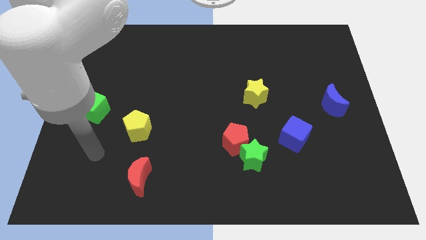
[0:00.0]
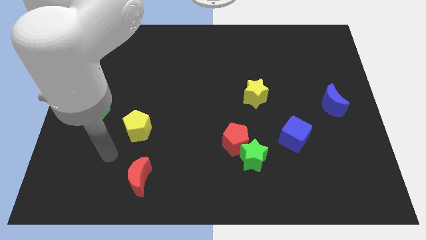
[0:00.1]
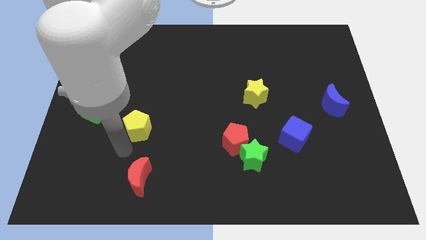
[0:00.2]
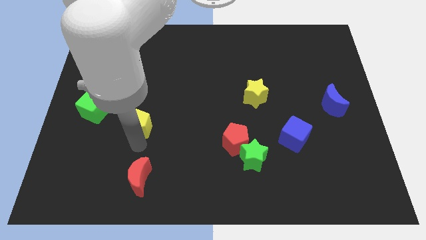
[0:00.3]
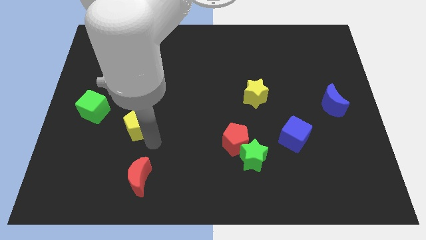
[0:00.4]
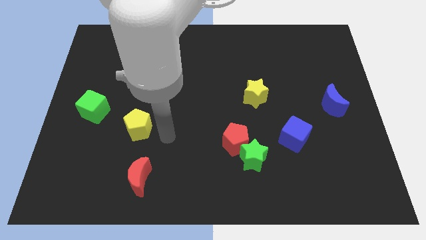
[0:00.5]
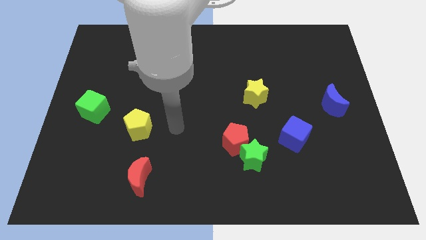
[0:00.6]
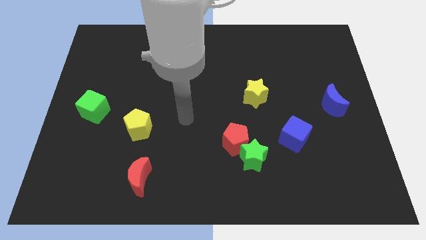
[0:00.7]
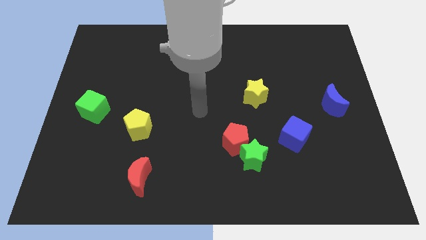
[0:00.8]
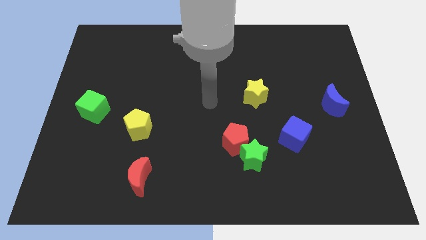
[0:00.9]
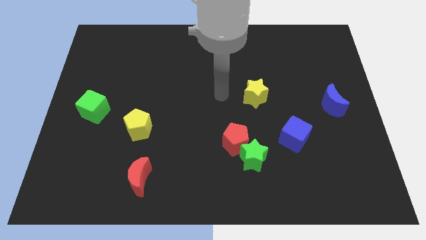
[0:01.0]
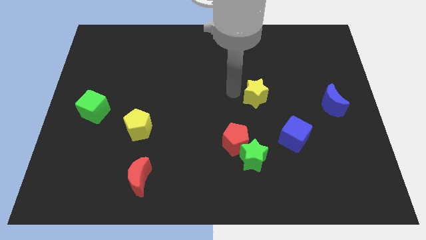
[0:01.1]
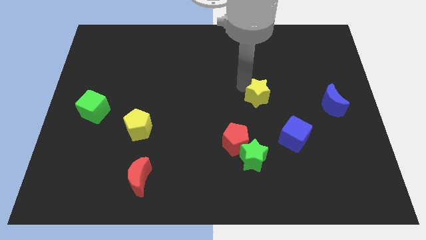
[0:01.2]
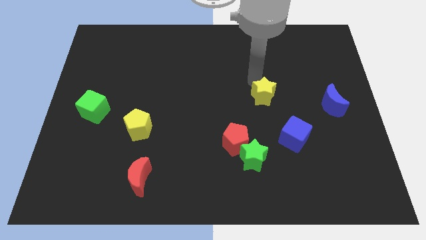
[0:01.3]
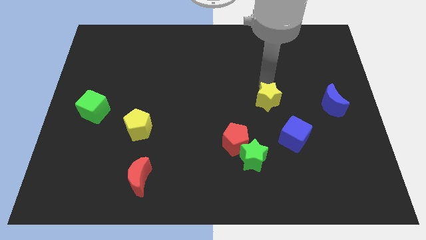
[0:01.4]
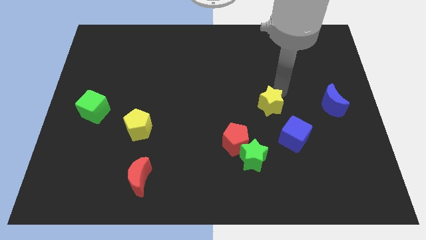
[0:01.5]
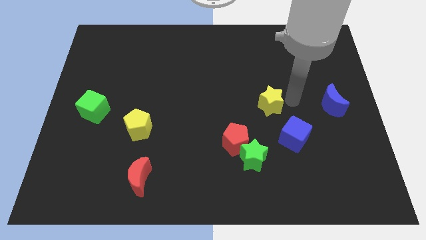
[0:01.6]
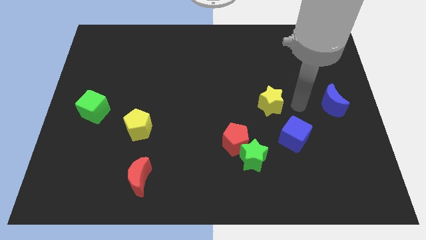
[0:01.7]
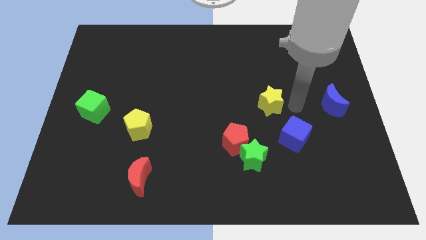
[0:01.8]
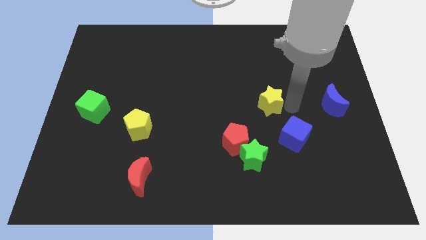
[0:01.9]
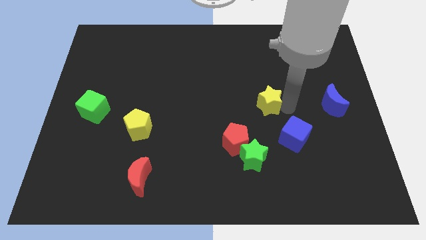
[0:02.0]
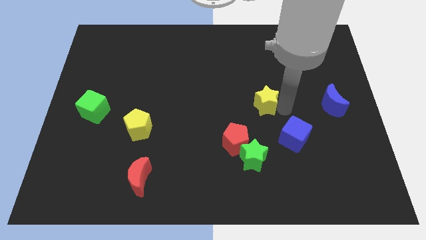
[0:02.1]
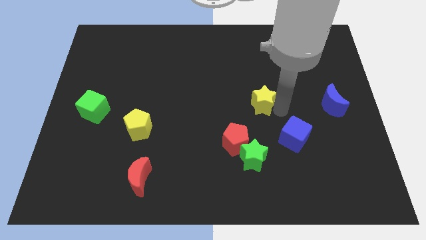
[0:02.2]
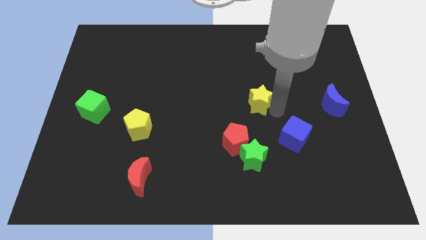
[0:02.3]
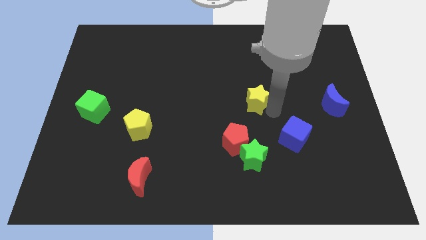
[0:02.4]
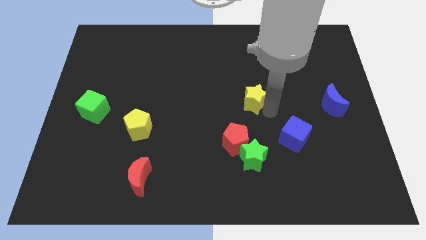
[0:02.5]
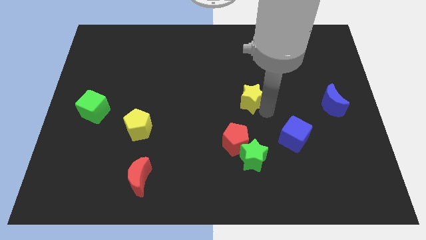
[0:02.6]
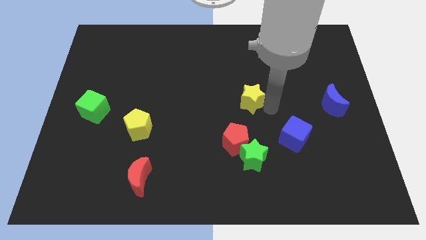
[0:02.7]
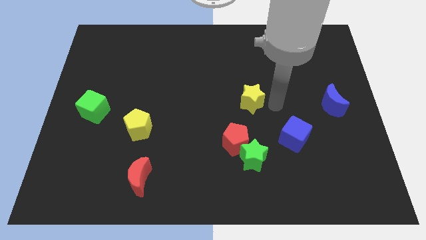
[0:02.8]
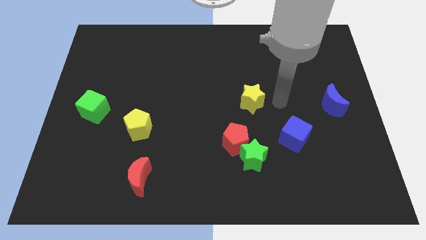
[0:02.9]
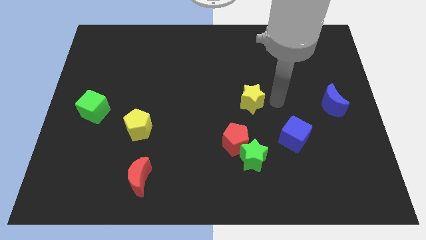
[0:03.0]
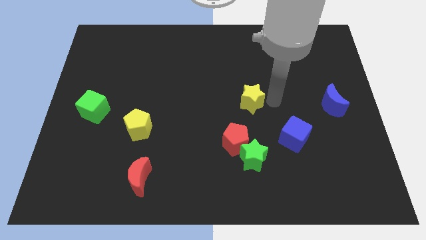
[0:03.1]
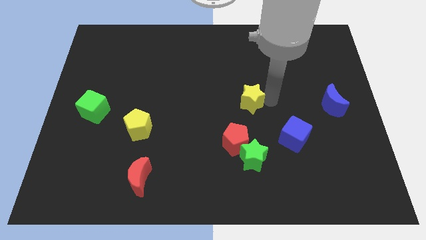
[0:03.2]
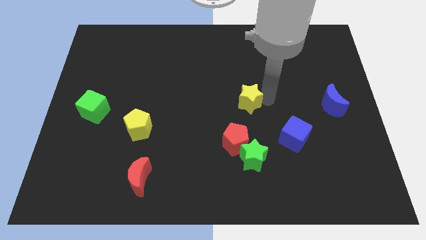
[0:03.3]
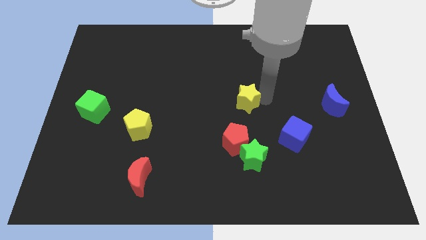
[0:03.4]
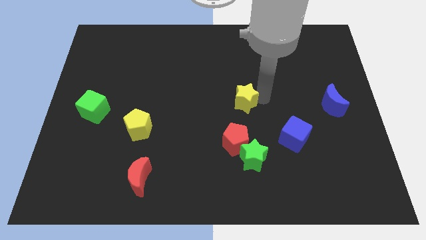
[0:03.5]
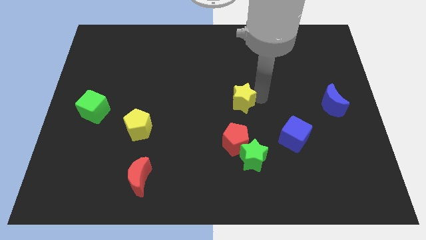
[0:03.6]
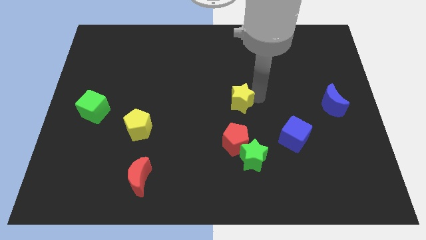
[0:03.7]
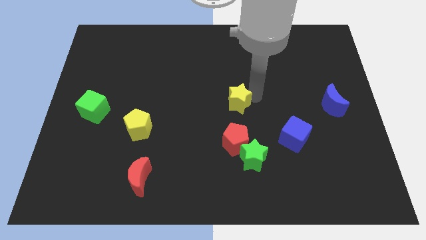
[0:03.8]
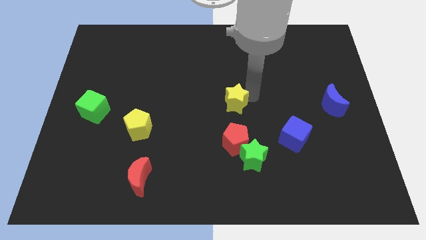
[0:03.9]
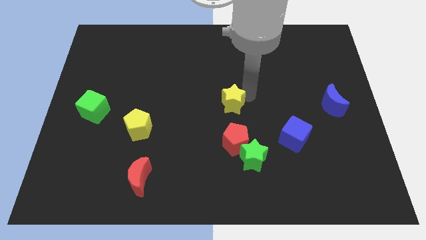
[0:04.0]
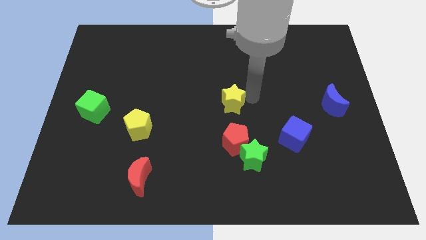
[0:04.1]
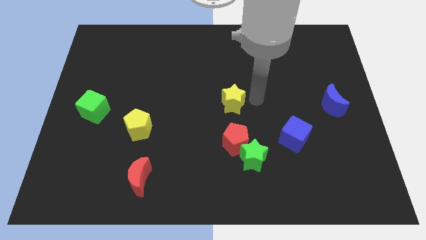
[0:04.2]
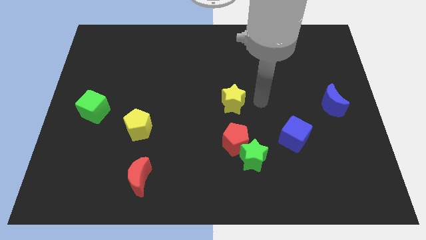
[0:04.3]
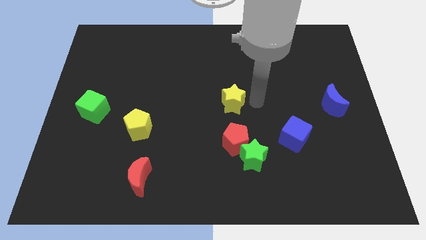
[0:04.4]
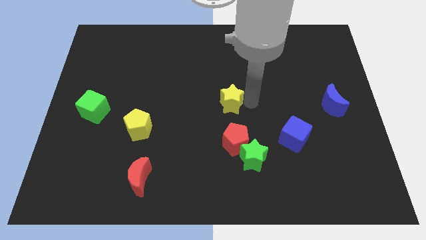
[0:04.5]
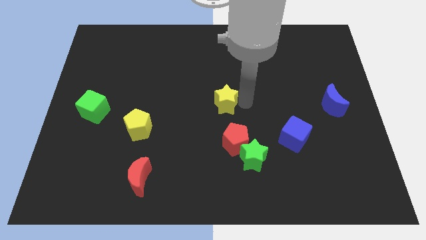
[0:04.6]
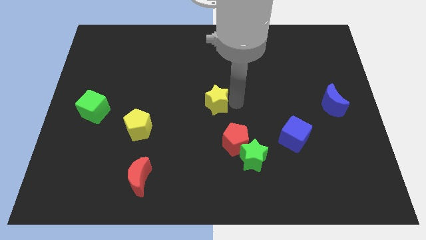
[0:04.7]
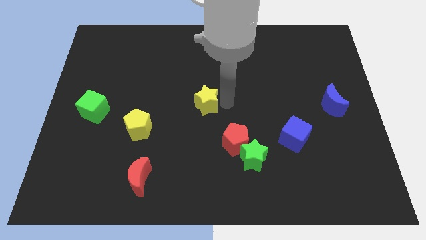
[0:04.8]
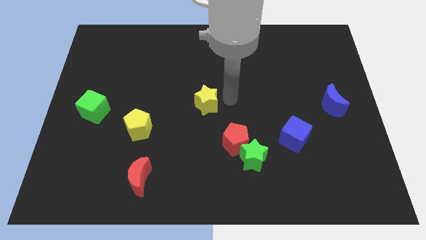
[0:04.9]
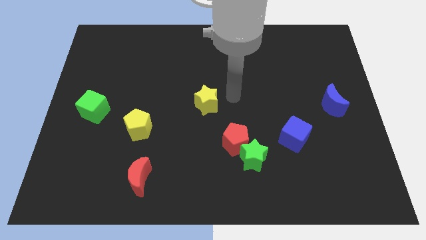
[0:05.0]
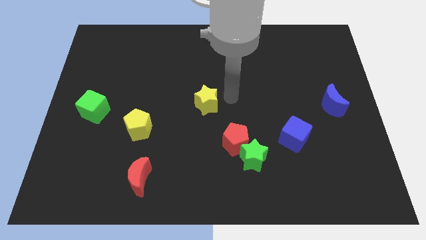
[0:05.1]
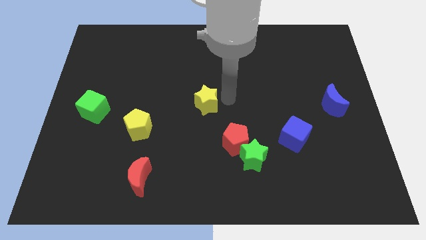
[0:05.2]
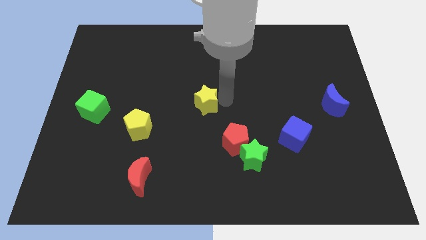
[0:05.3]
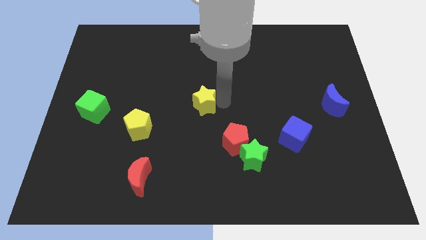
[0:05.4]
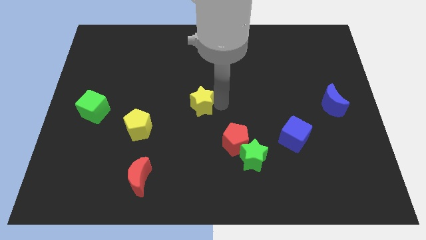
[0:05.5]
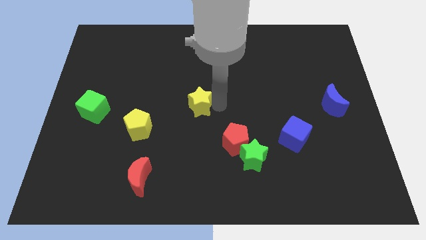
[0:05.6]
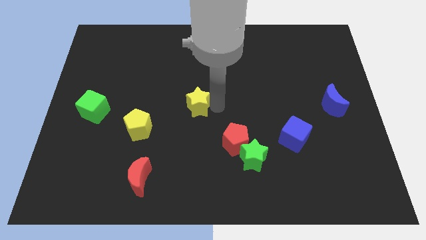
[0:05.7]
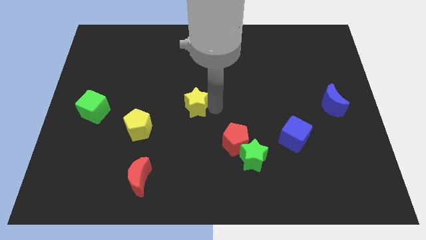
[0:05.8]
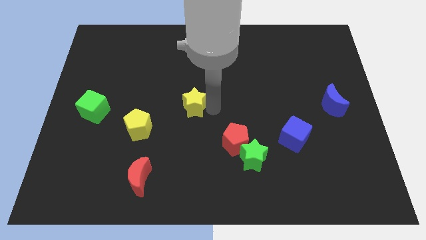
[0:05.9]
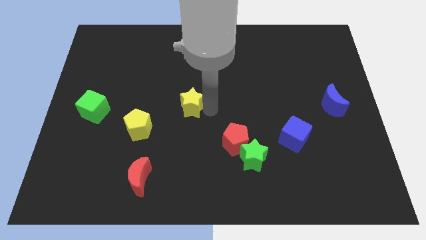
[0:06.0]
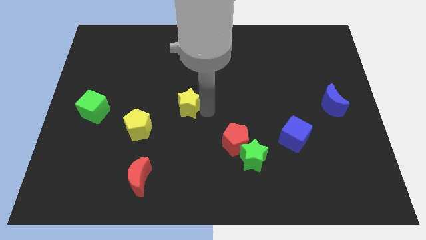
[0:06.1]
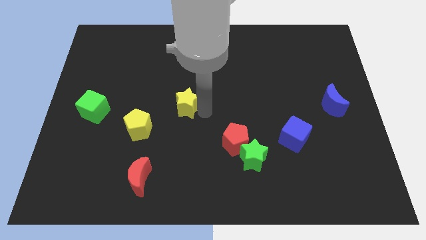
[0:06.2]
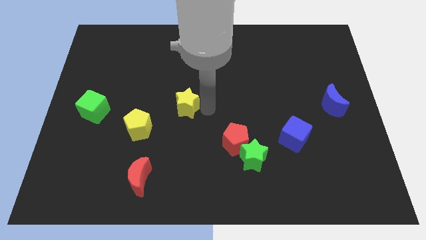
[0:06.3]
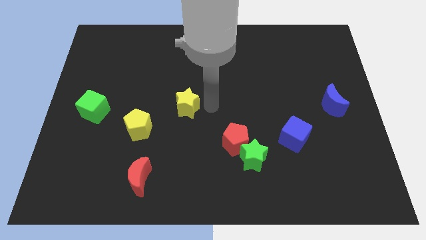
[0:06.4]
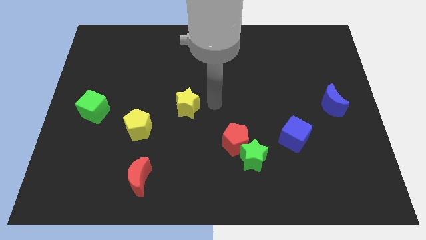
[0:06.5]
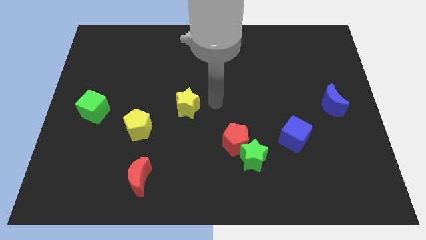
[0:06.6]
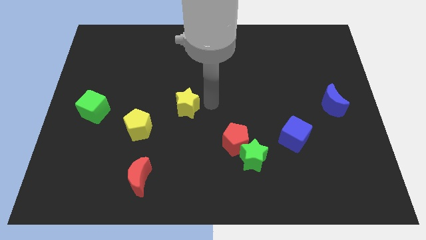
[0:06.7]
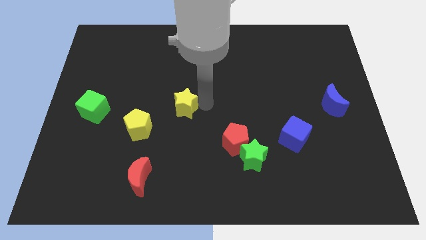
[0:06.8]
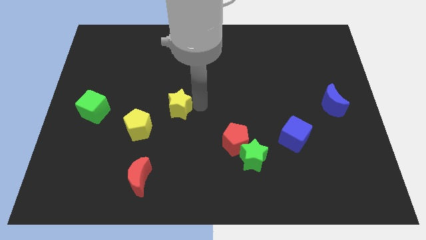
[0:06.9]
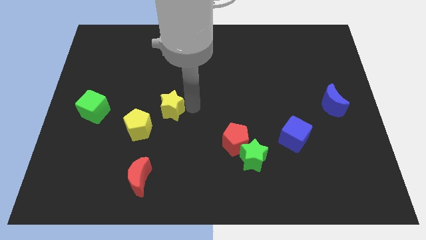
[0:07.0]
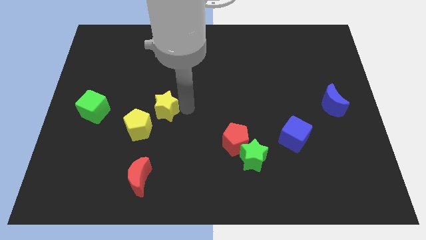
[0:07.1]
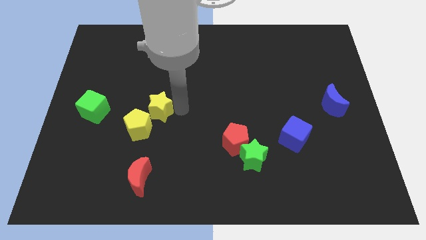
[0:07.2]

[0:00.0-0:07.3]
slide the yellow star to the right side of the green cube

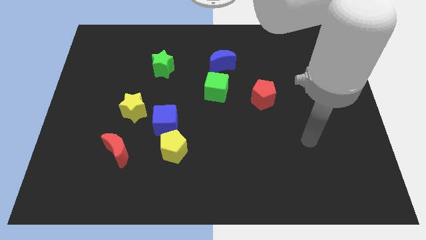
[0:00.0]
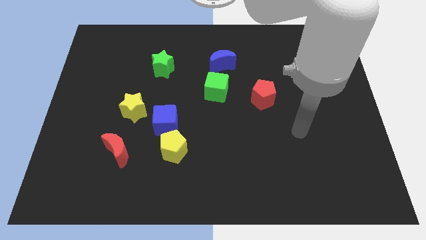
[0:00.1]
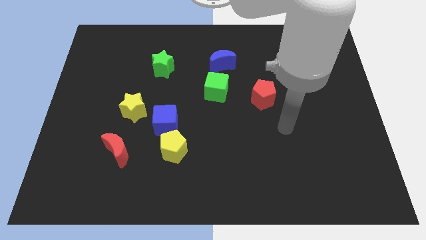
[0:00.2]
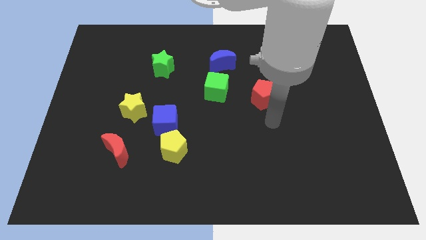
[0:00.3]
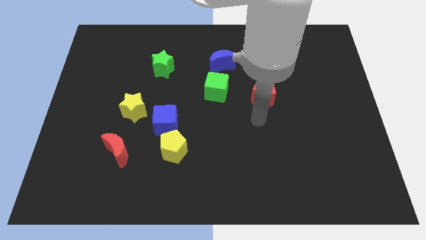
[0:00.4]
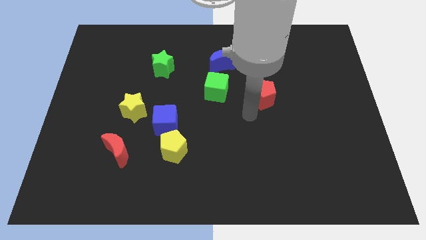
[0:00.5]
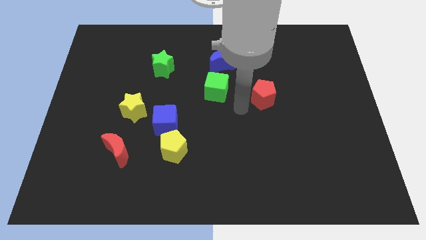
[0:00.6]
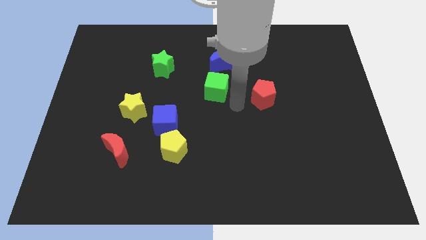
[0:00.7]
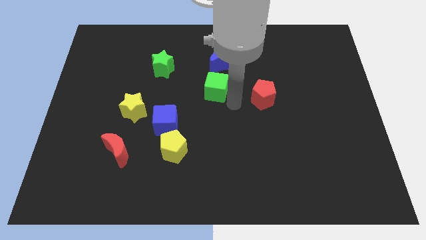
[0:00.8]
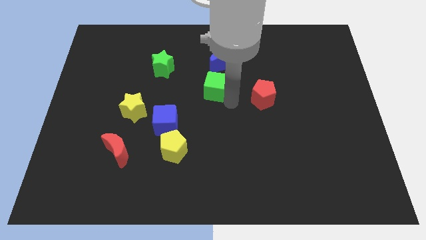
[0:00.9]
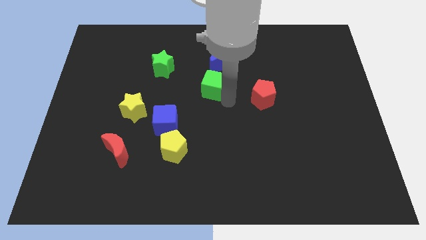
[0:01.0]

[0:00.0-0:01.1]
push the green cube to the bottom left side of the blue moon
